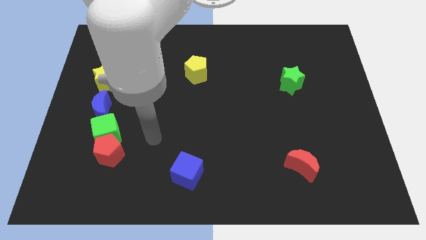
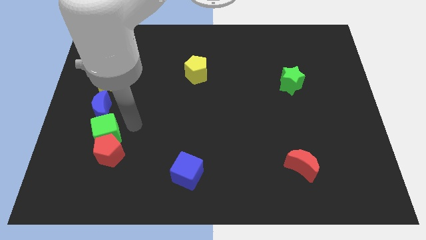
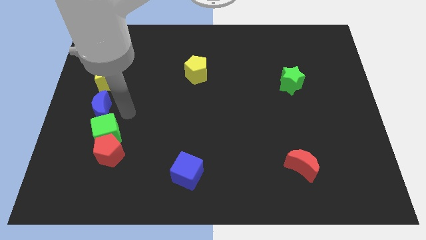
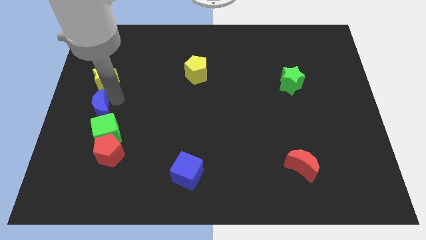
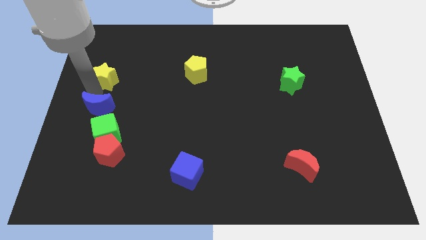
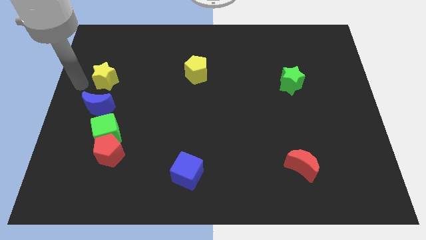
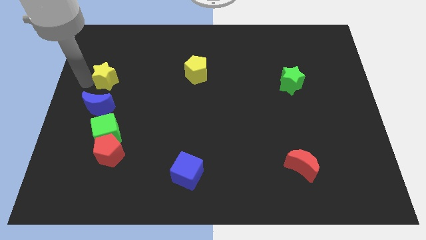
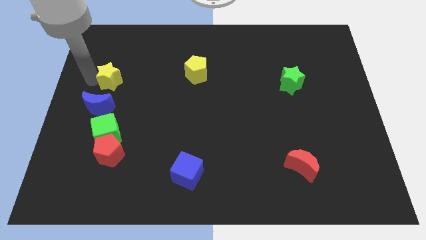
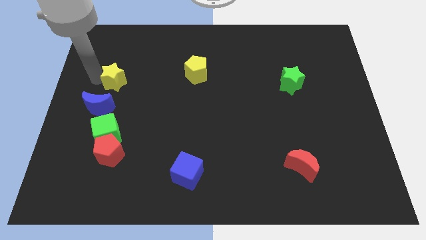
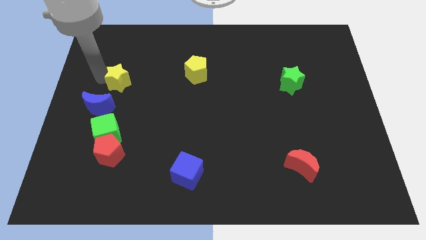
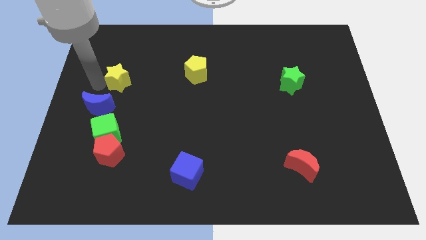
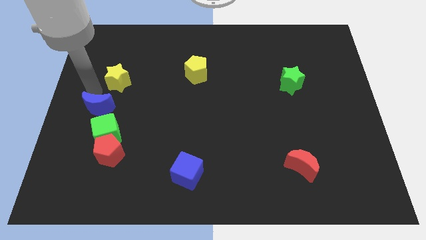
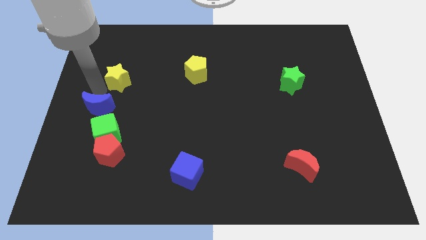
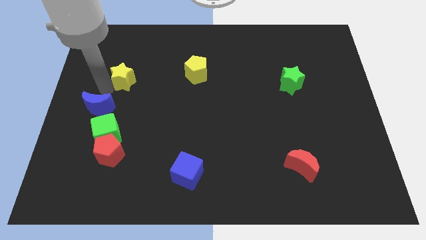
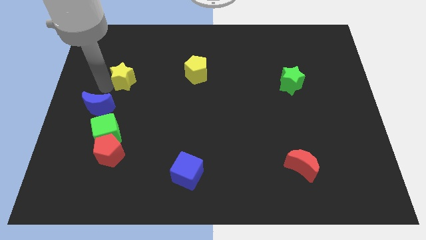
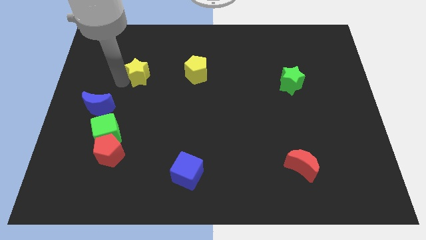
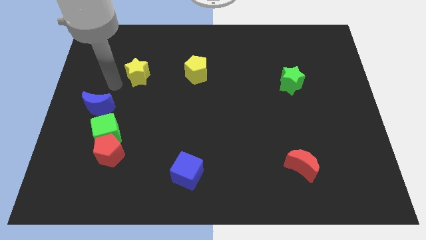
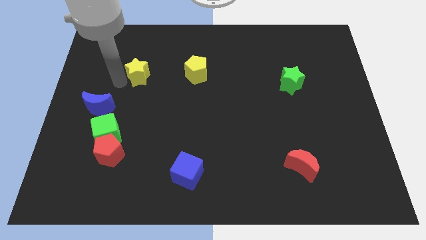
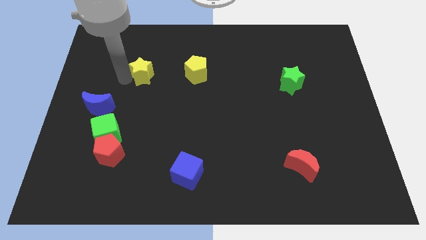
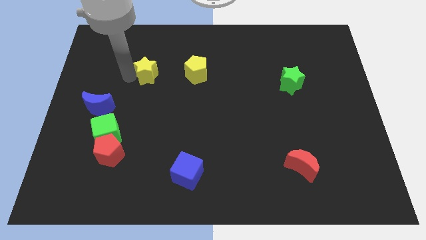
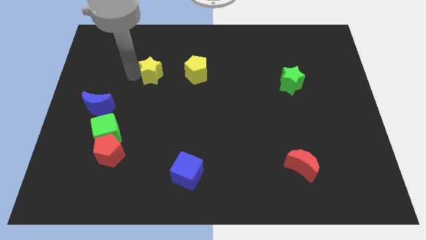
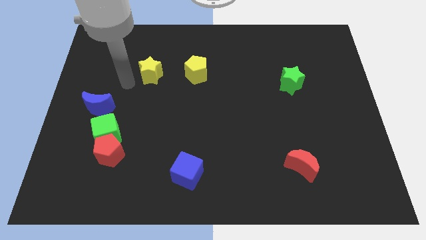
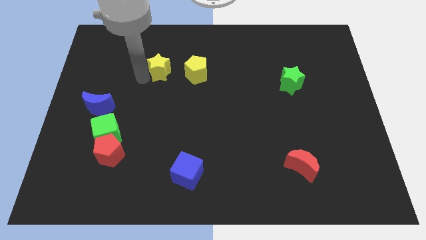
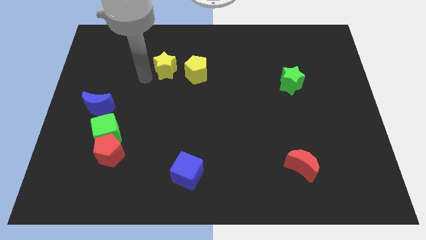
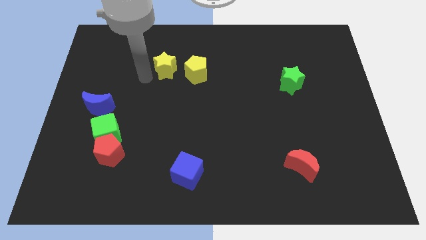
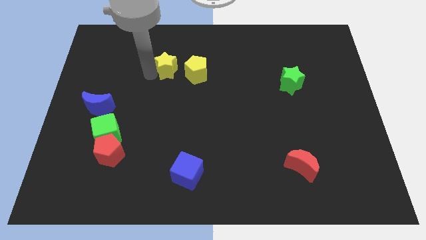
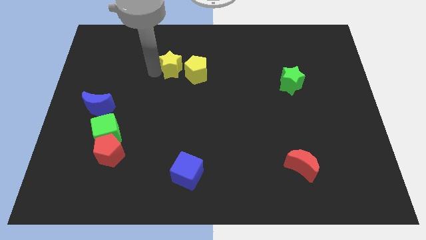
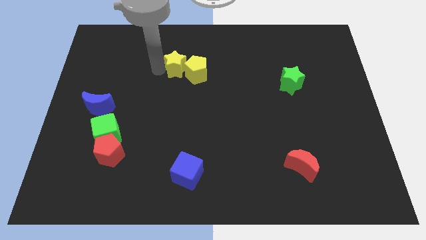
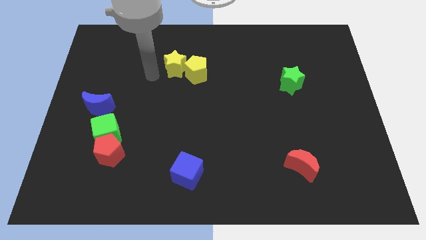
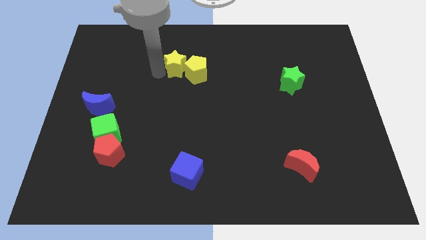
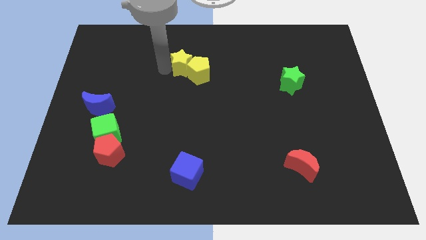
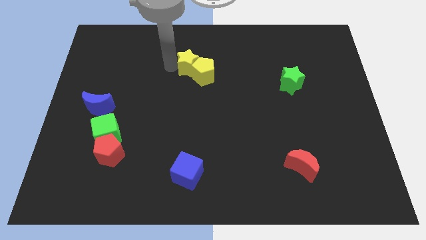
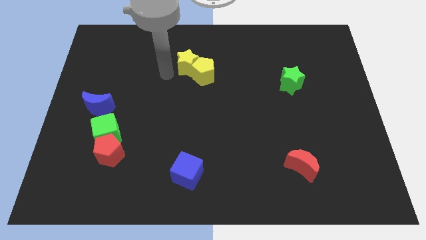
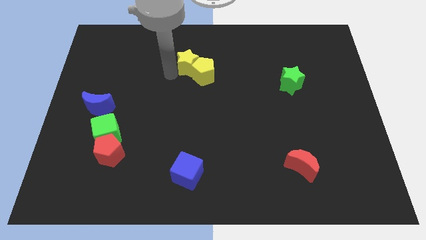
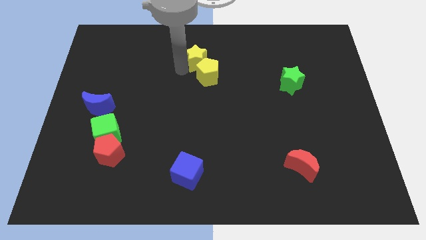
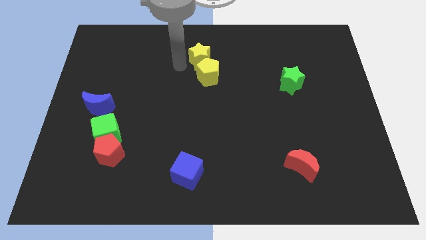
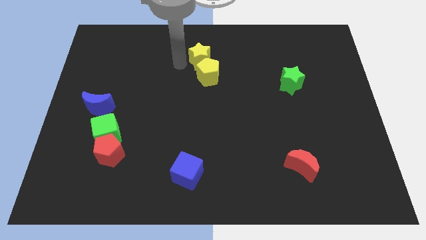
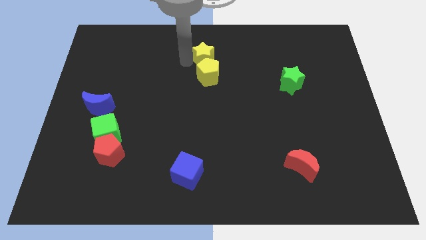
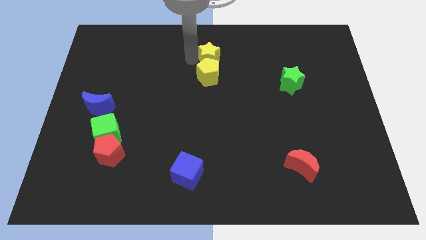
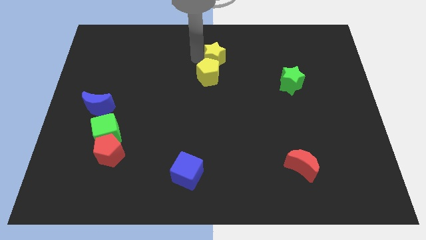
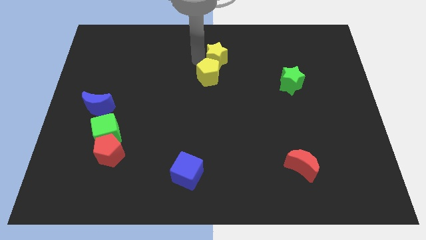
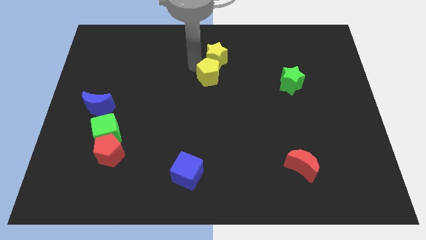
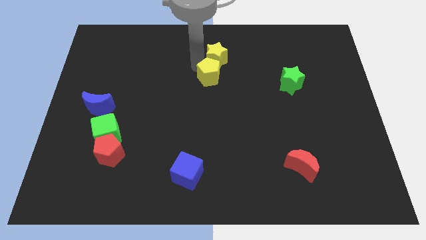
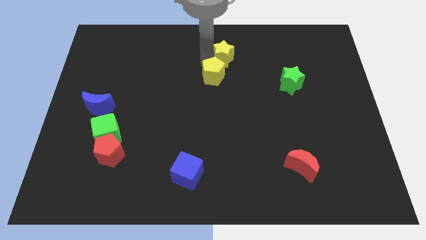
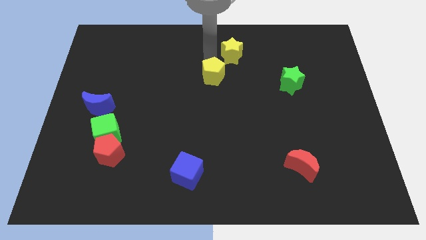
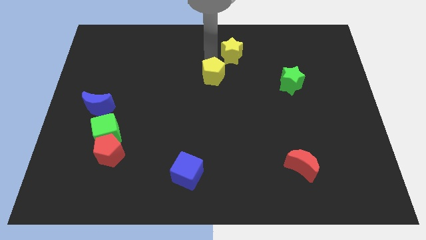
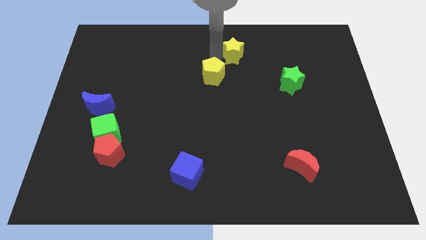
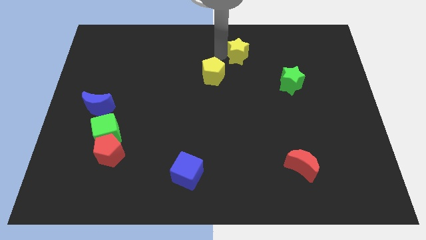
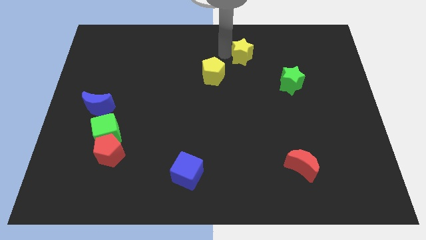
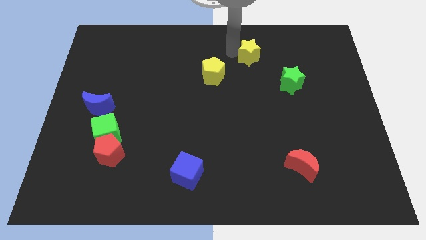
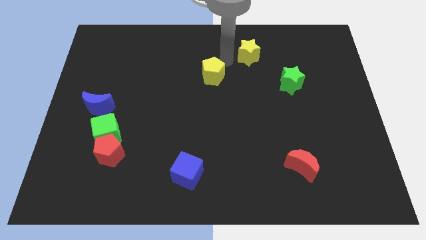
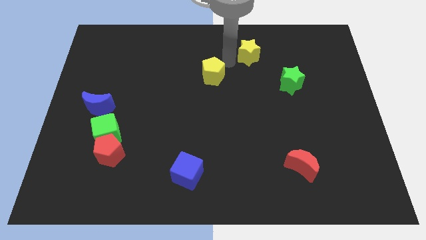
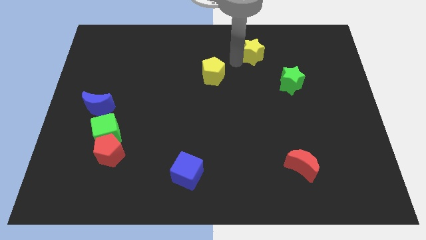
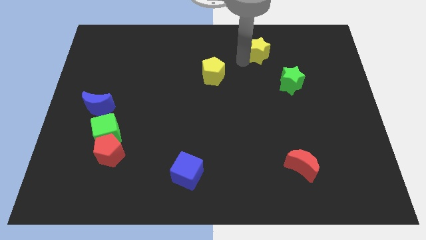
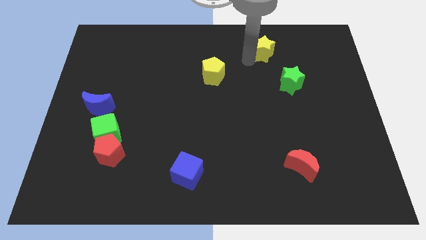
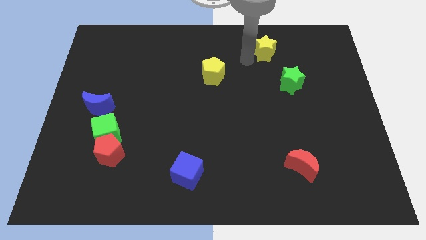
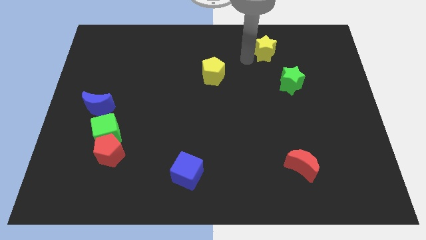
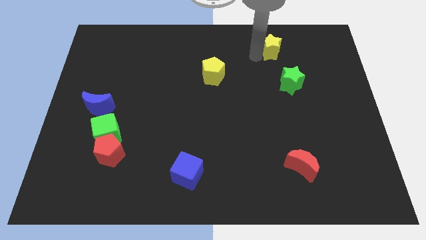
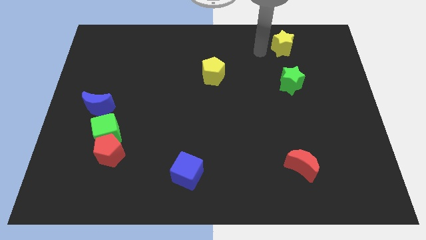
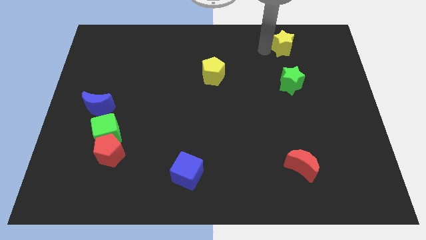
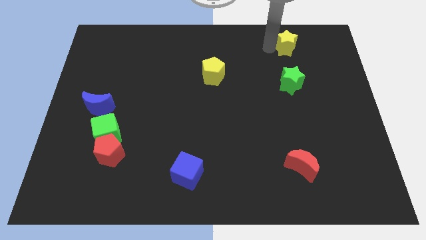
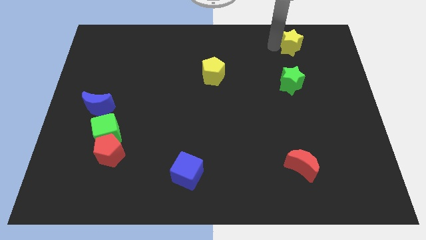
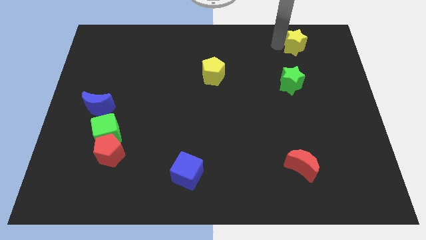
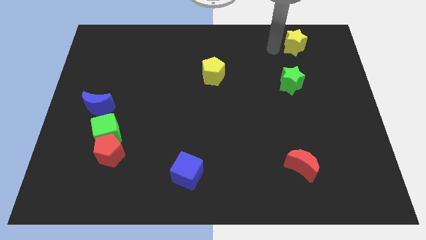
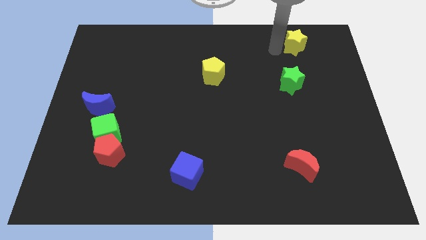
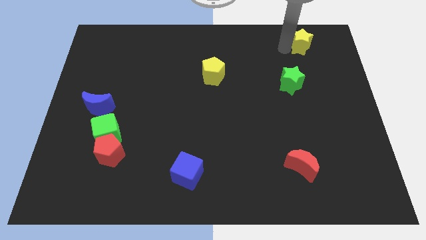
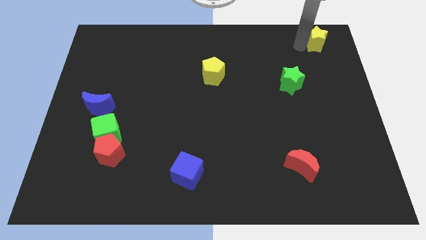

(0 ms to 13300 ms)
slide the yellow star to the top right corner
